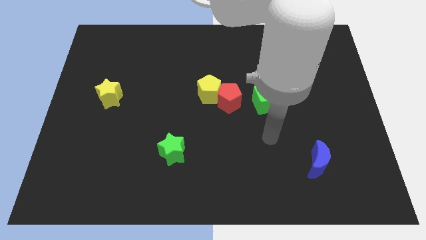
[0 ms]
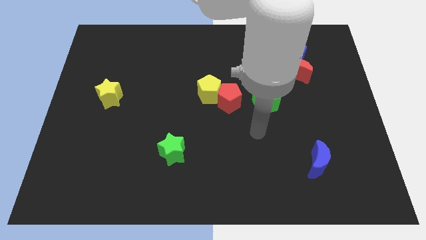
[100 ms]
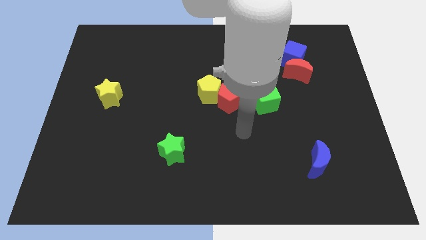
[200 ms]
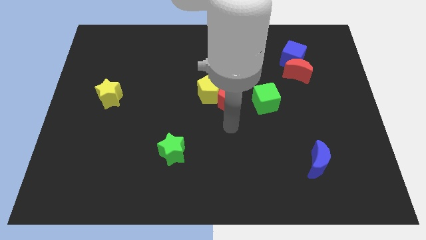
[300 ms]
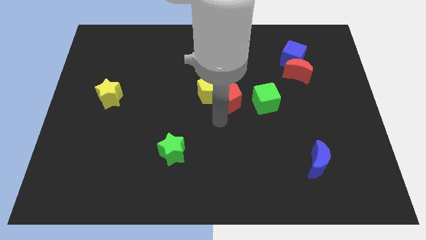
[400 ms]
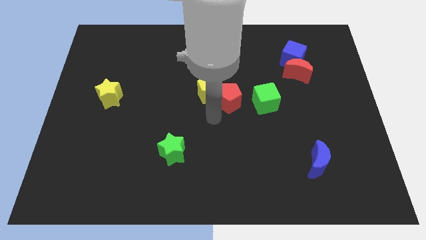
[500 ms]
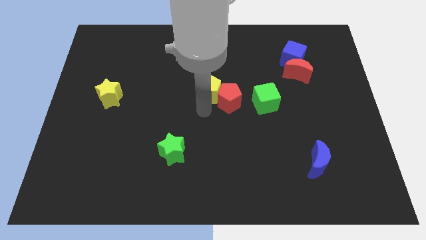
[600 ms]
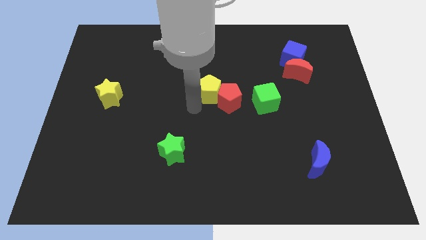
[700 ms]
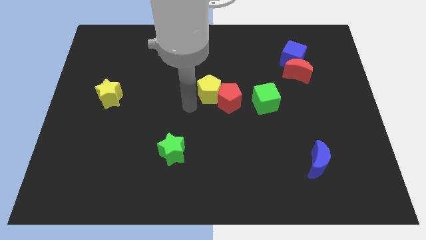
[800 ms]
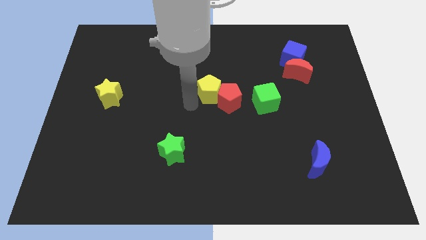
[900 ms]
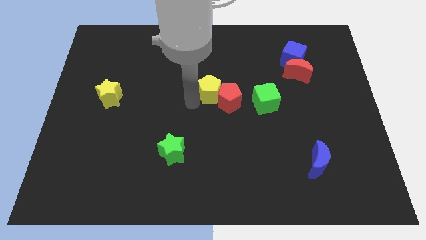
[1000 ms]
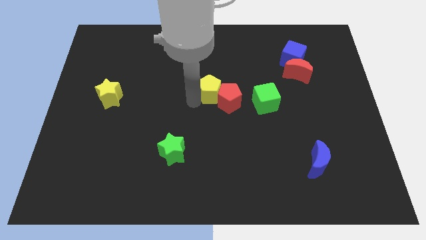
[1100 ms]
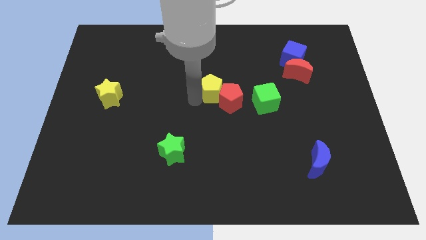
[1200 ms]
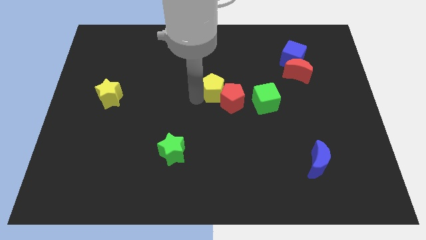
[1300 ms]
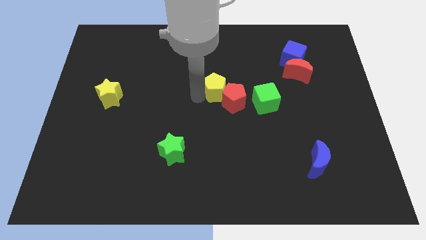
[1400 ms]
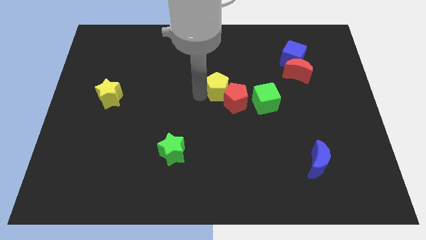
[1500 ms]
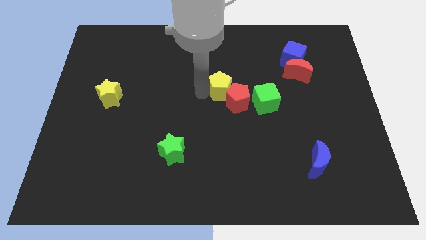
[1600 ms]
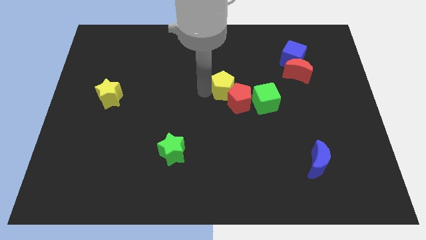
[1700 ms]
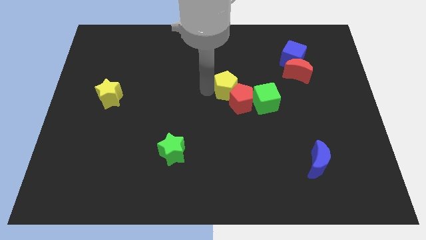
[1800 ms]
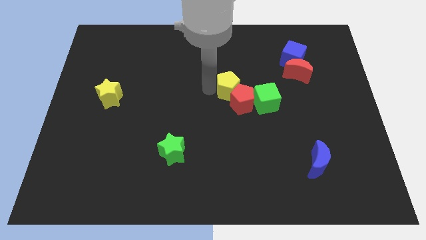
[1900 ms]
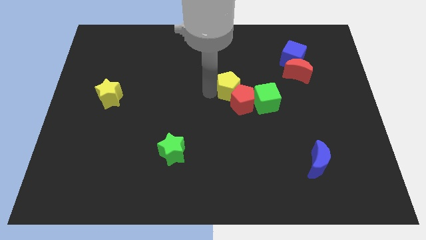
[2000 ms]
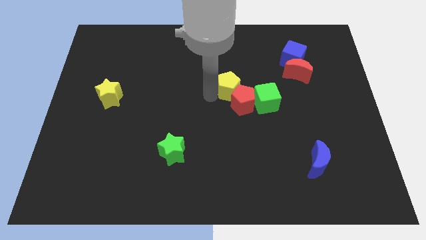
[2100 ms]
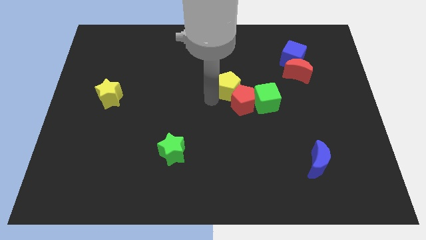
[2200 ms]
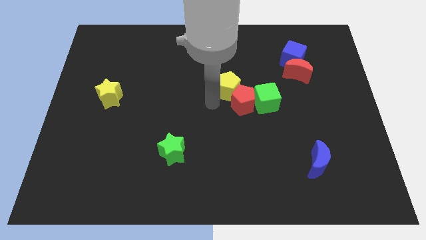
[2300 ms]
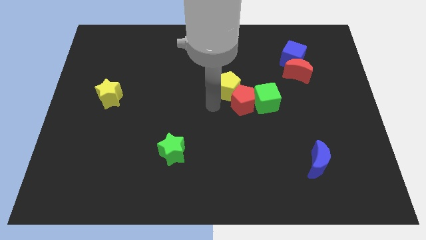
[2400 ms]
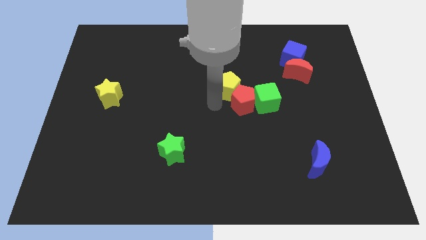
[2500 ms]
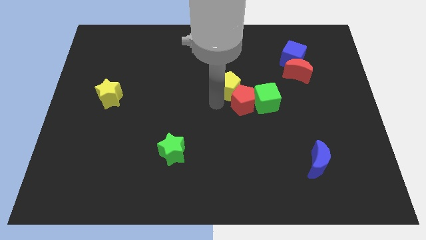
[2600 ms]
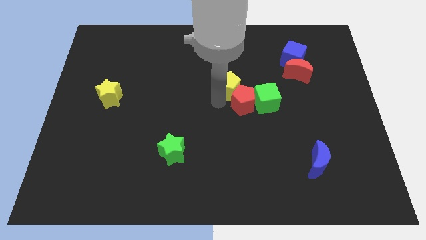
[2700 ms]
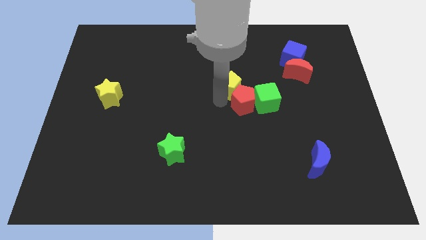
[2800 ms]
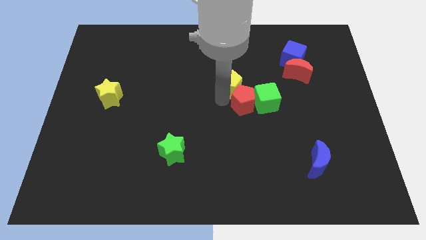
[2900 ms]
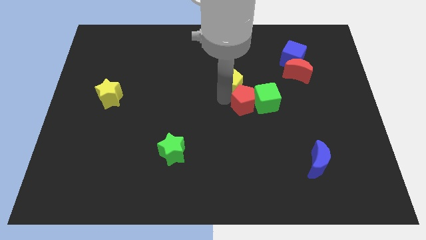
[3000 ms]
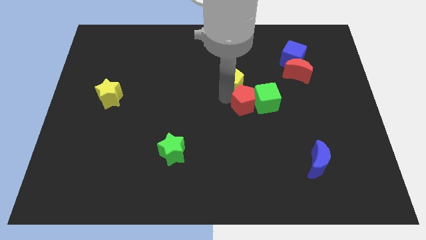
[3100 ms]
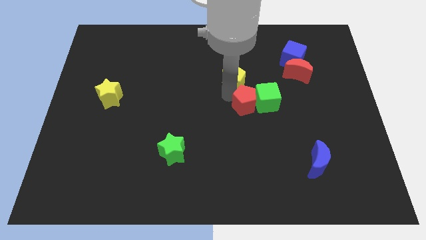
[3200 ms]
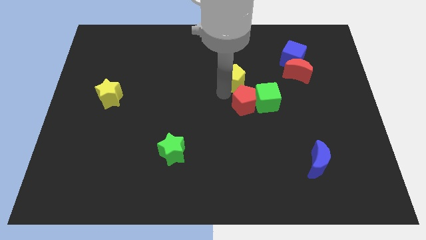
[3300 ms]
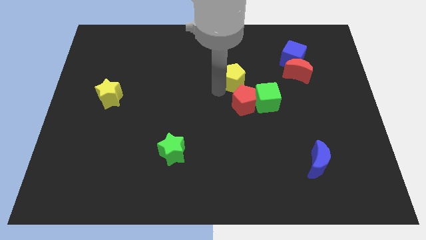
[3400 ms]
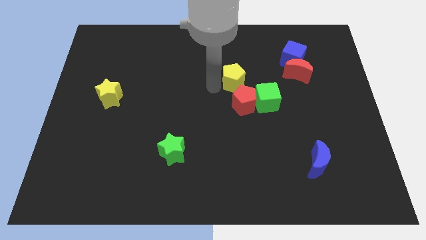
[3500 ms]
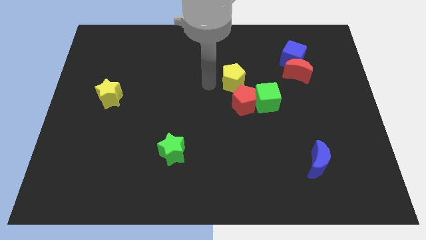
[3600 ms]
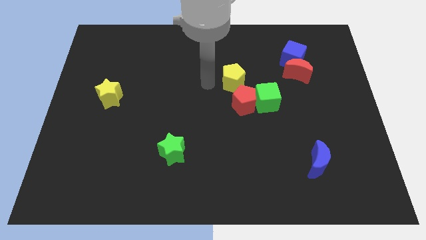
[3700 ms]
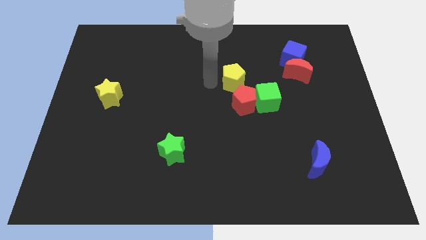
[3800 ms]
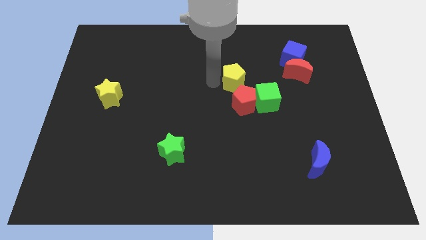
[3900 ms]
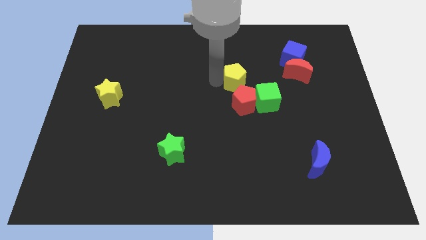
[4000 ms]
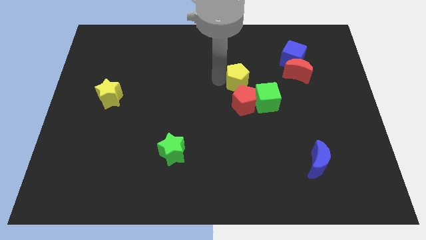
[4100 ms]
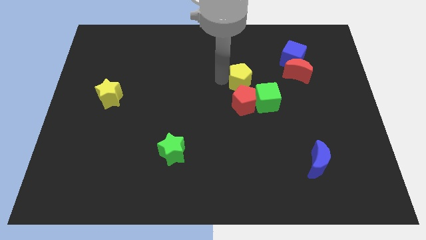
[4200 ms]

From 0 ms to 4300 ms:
slide the yellow pentagon right a little

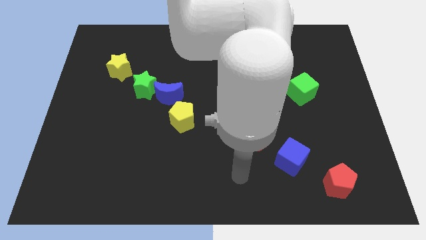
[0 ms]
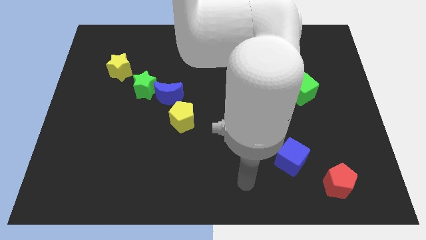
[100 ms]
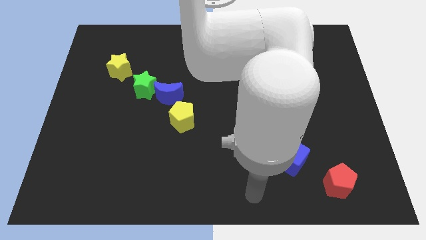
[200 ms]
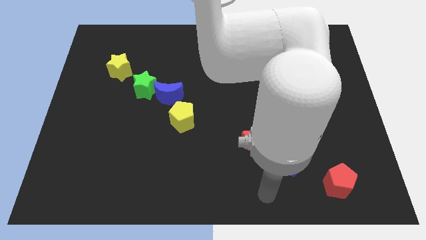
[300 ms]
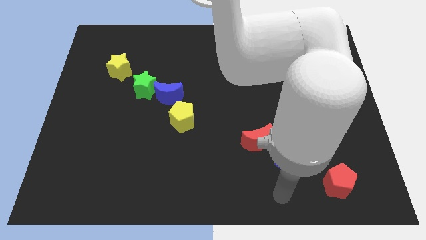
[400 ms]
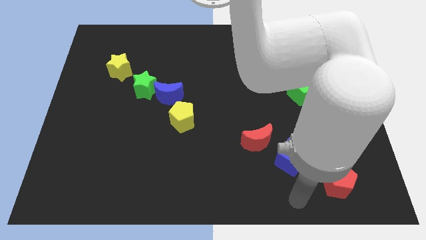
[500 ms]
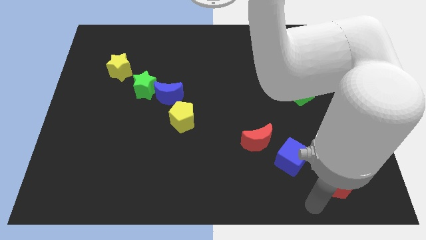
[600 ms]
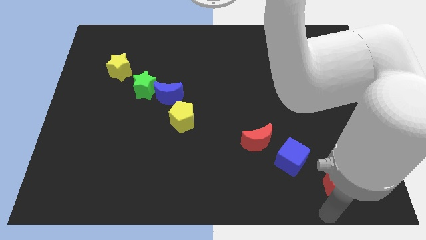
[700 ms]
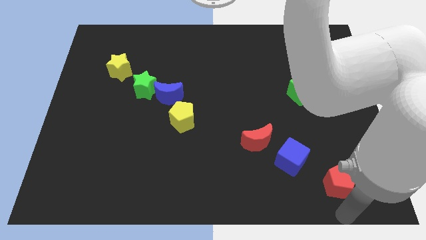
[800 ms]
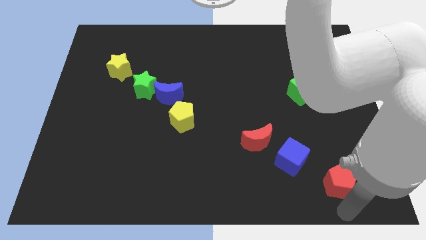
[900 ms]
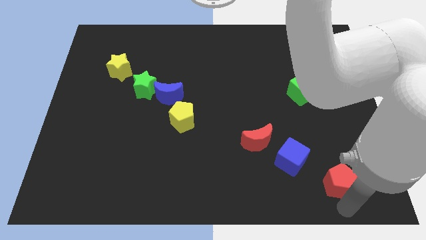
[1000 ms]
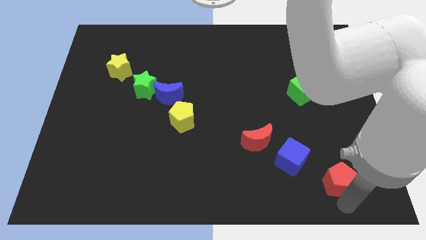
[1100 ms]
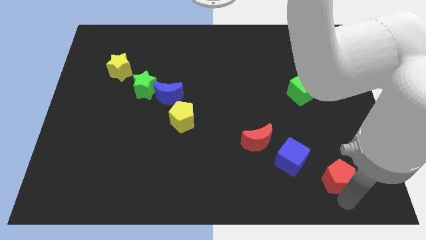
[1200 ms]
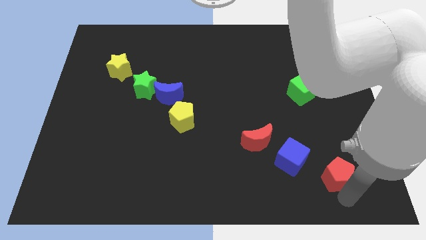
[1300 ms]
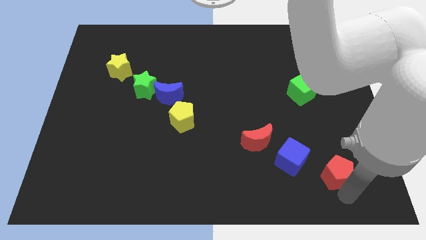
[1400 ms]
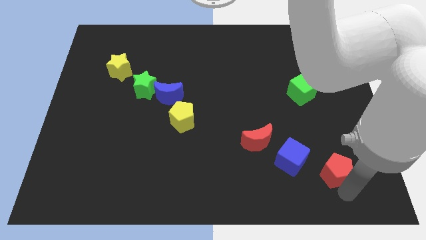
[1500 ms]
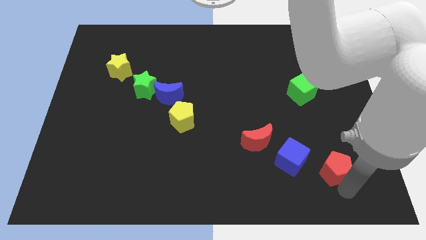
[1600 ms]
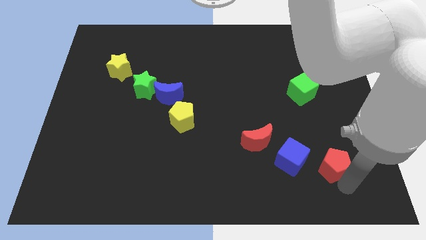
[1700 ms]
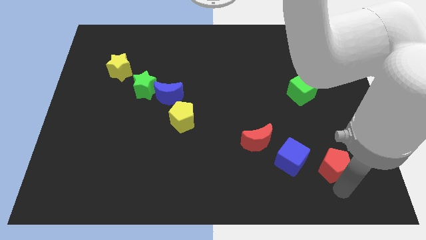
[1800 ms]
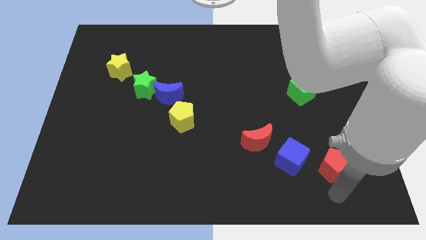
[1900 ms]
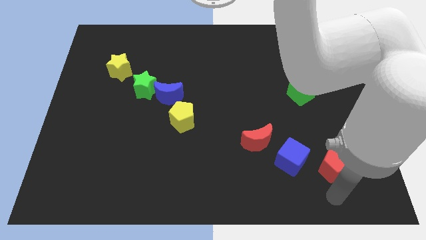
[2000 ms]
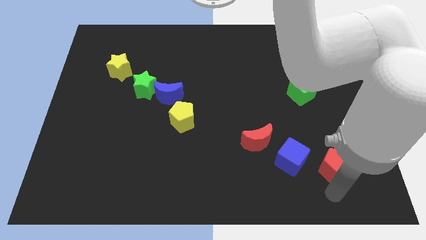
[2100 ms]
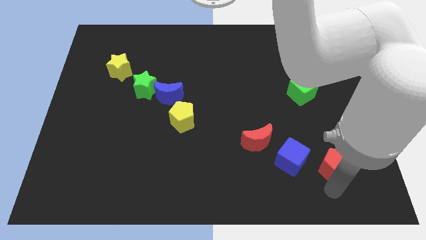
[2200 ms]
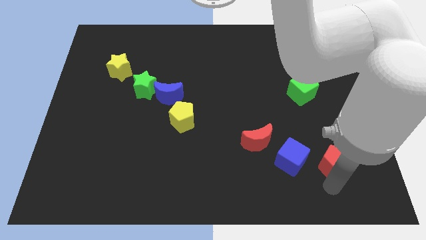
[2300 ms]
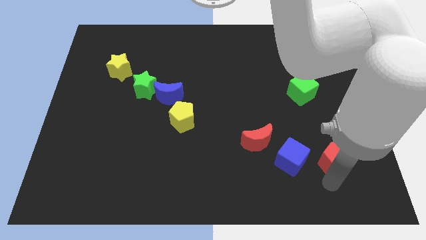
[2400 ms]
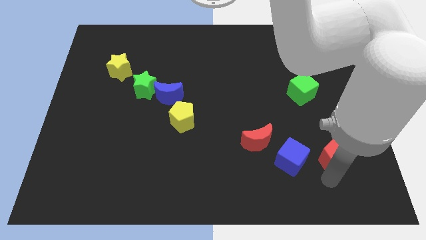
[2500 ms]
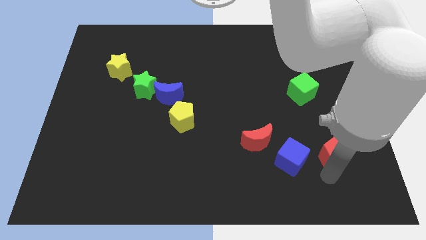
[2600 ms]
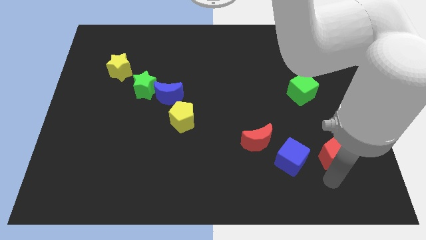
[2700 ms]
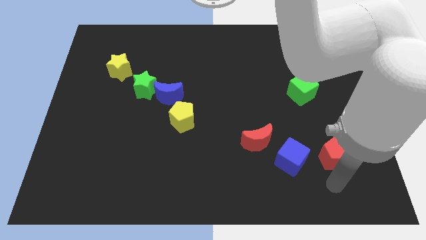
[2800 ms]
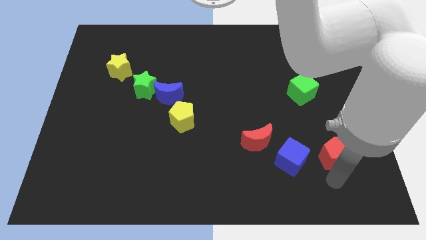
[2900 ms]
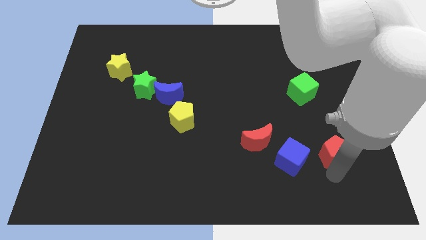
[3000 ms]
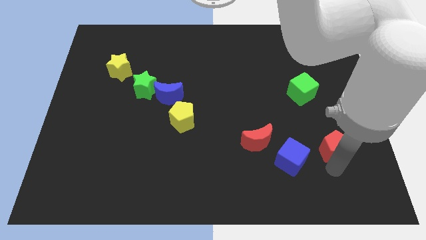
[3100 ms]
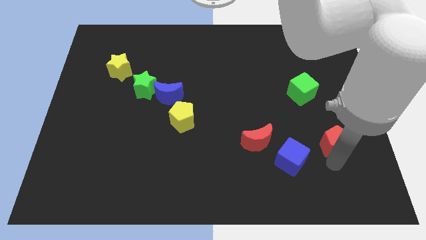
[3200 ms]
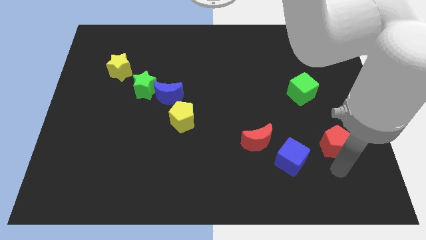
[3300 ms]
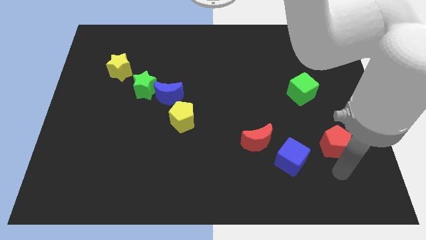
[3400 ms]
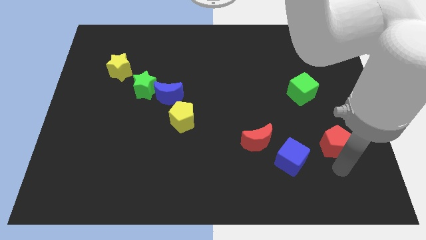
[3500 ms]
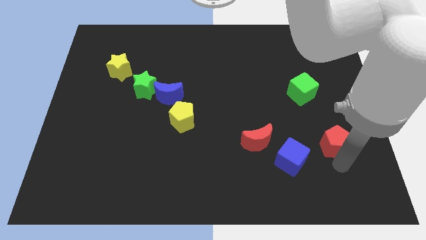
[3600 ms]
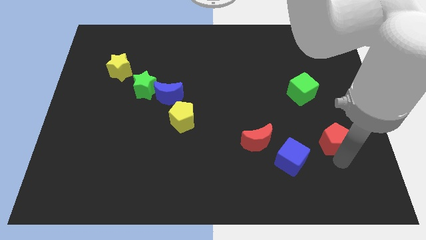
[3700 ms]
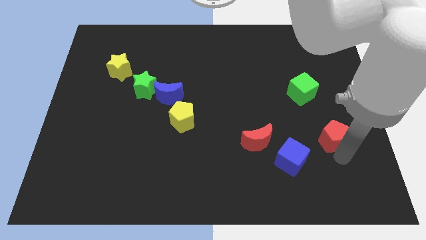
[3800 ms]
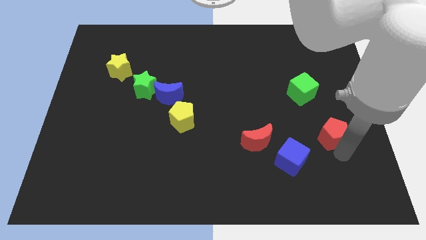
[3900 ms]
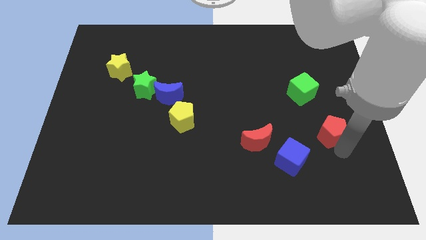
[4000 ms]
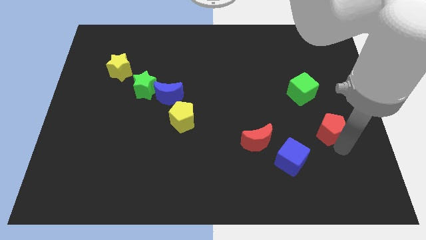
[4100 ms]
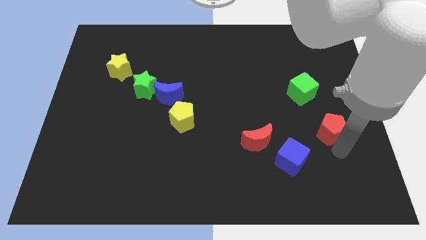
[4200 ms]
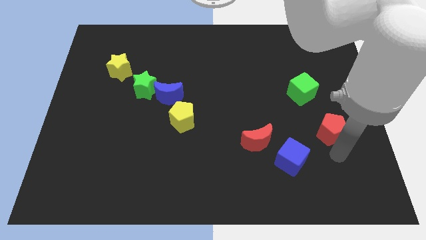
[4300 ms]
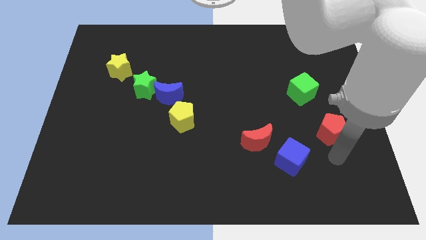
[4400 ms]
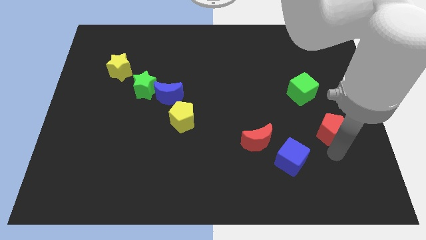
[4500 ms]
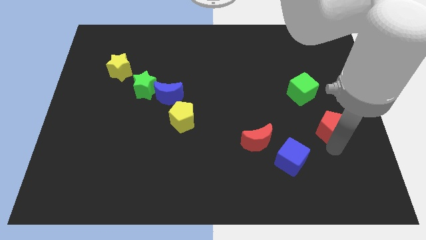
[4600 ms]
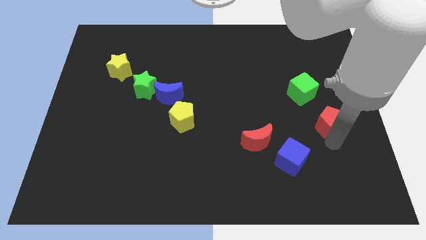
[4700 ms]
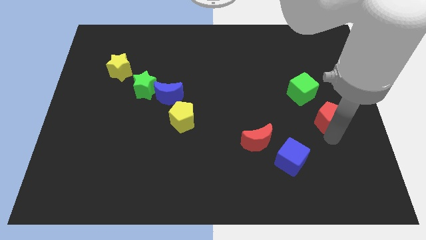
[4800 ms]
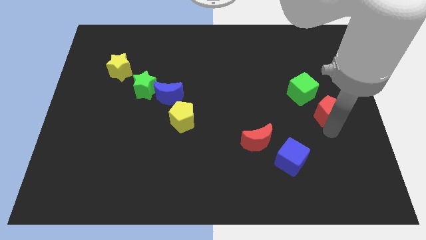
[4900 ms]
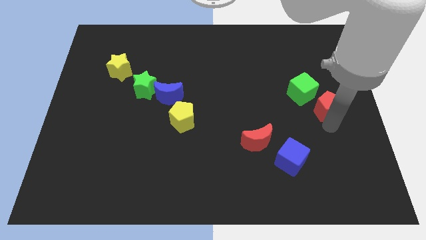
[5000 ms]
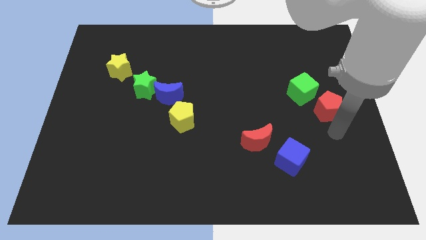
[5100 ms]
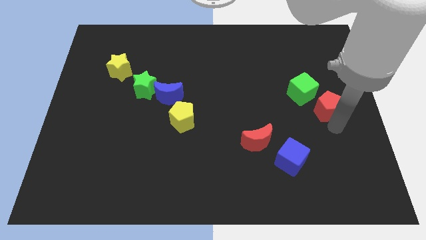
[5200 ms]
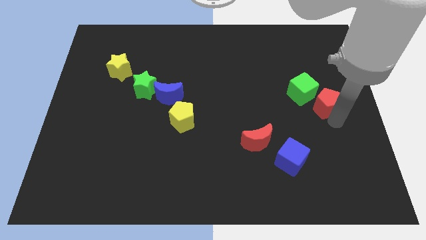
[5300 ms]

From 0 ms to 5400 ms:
push the red pentagon up
